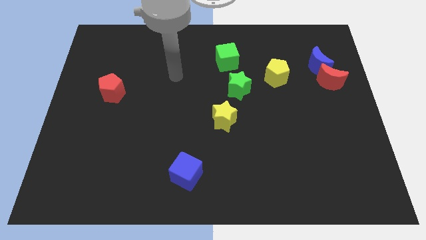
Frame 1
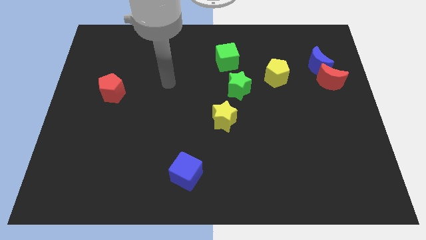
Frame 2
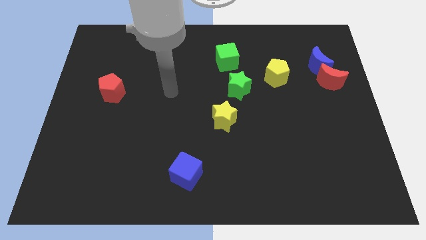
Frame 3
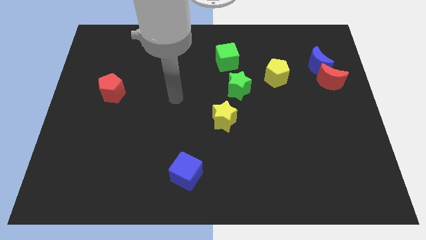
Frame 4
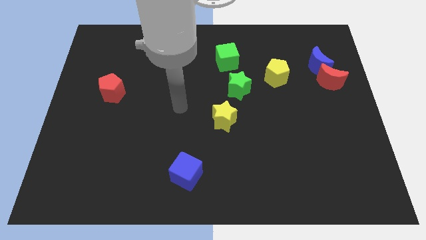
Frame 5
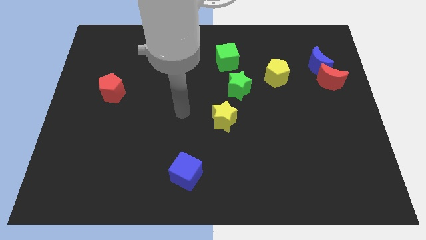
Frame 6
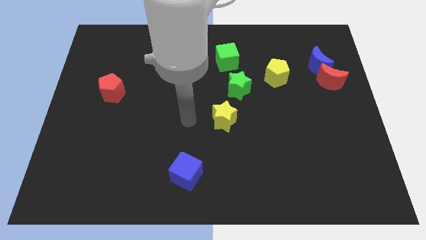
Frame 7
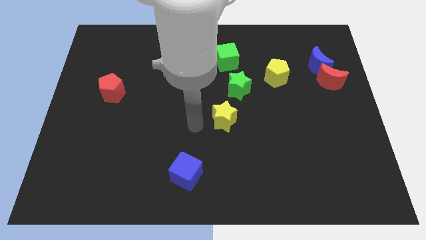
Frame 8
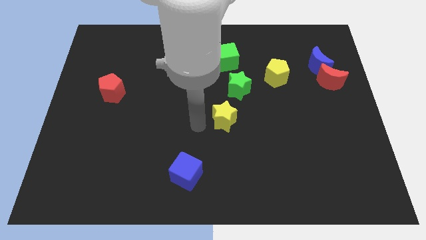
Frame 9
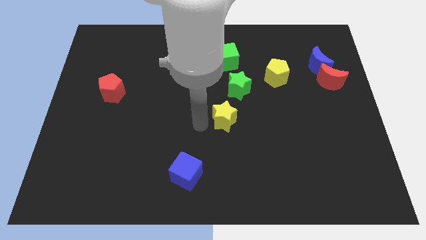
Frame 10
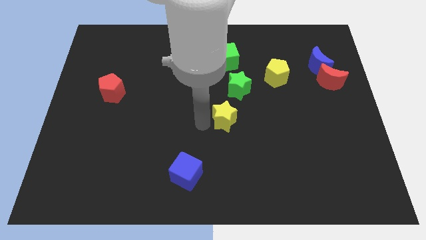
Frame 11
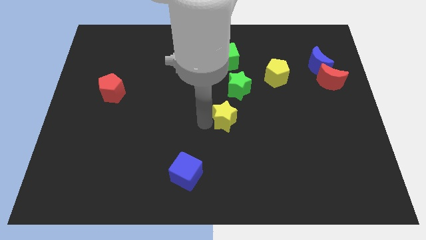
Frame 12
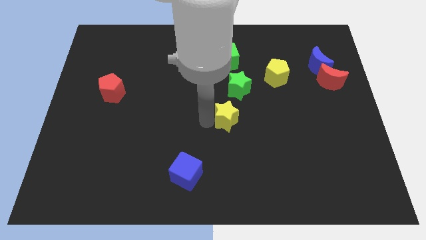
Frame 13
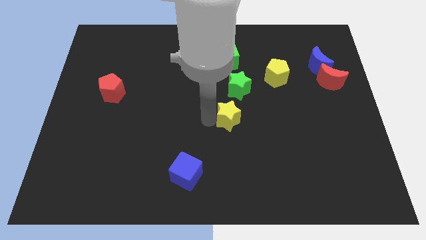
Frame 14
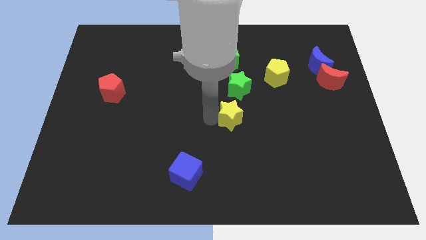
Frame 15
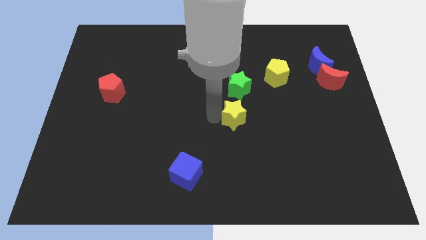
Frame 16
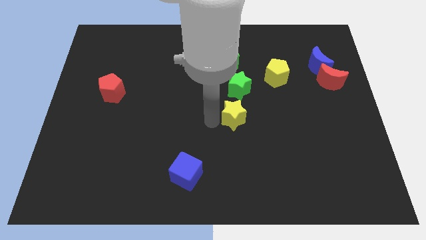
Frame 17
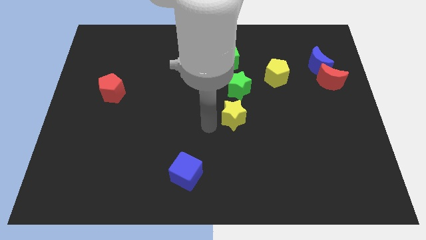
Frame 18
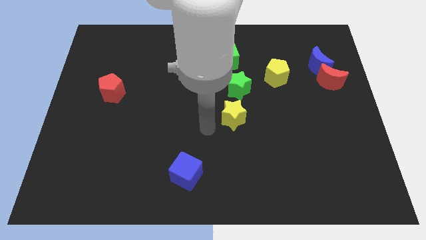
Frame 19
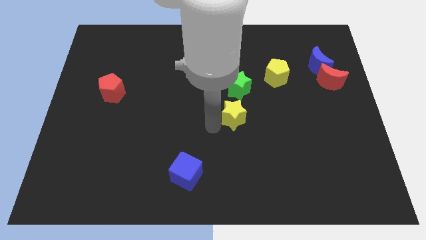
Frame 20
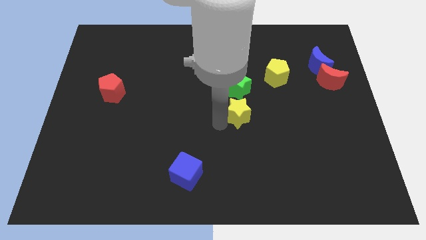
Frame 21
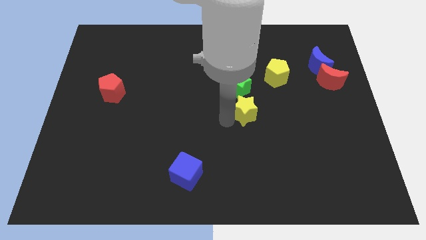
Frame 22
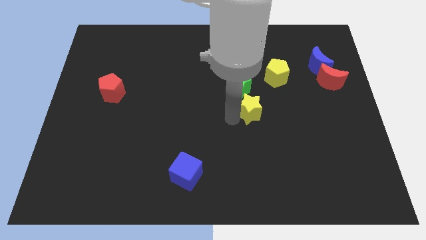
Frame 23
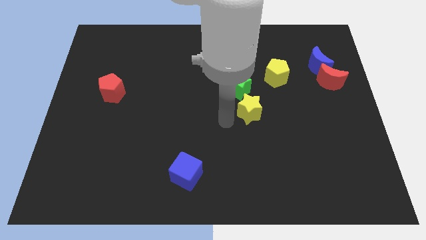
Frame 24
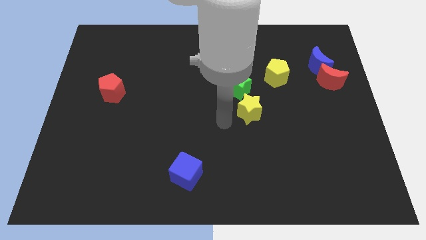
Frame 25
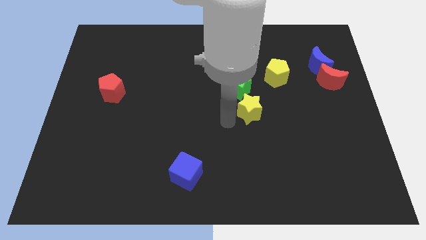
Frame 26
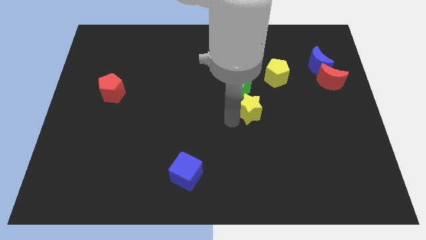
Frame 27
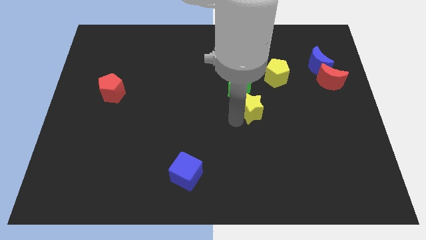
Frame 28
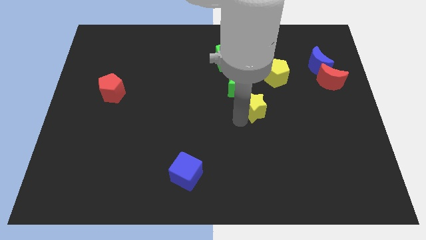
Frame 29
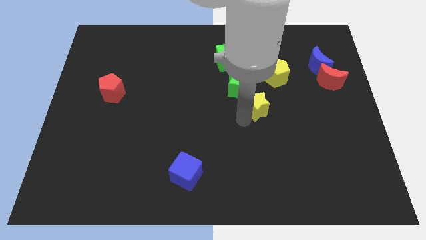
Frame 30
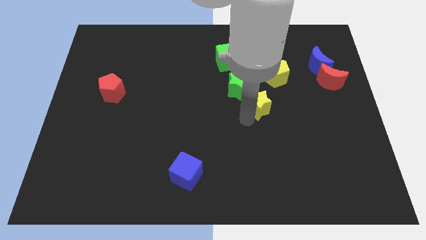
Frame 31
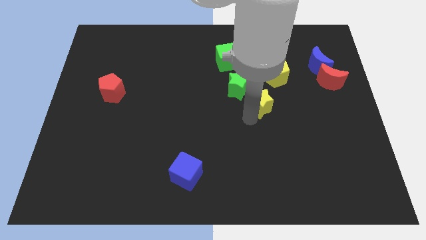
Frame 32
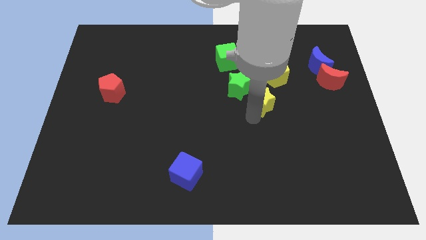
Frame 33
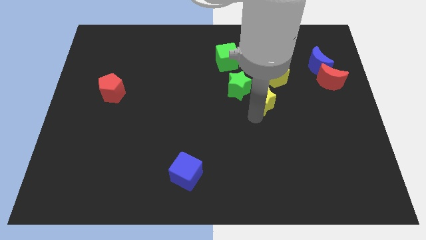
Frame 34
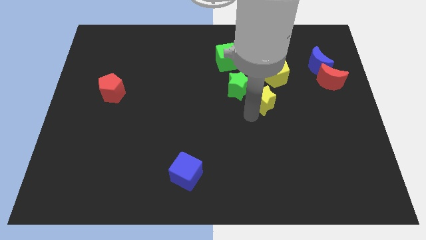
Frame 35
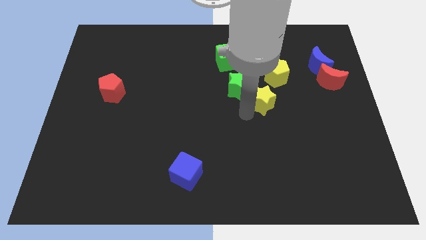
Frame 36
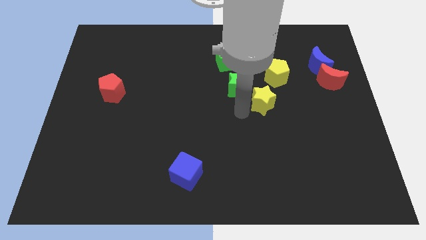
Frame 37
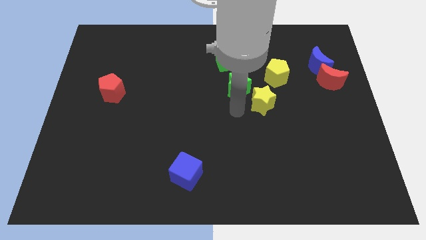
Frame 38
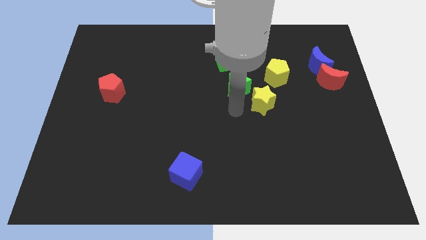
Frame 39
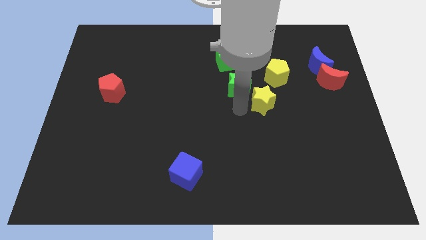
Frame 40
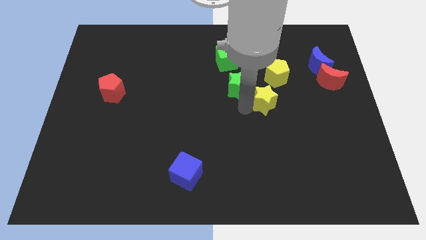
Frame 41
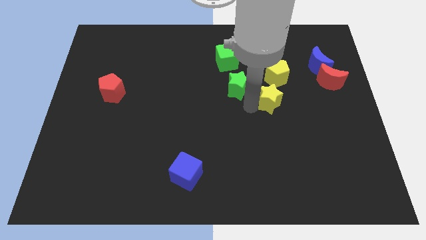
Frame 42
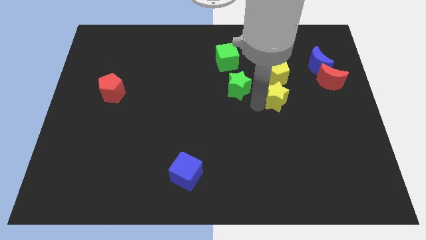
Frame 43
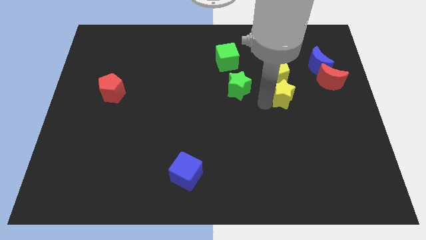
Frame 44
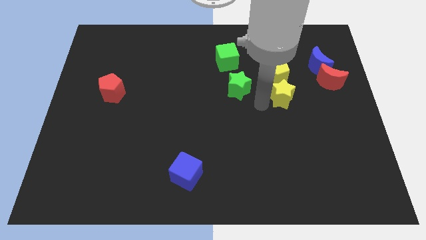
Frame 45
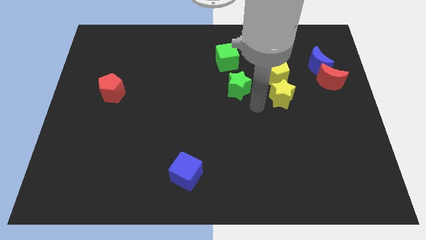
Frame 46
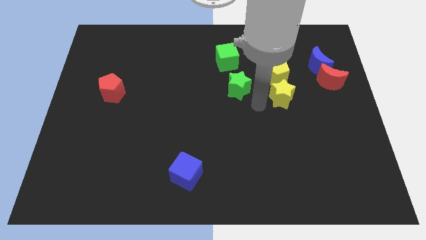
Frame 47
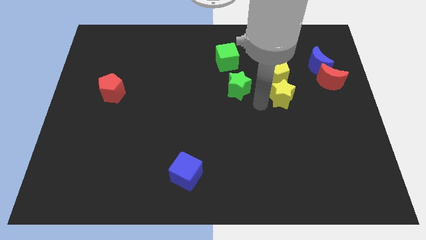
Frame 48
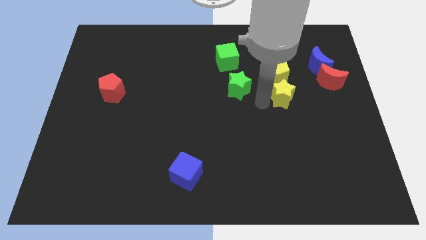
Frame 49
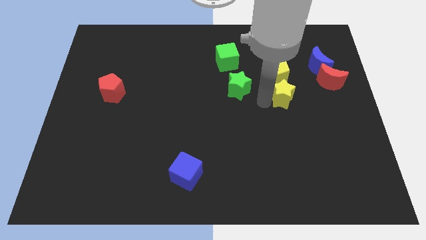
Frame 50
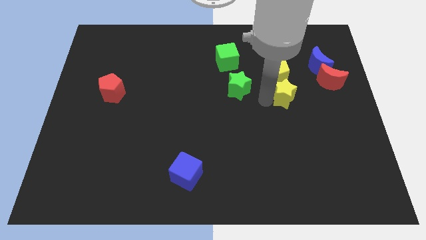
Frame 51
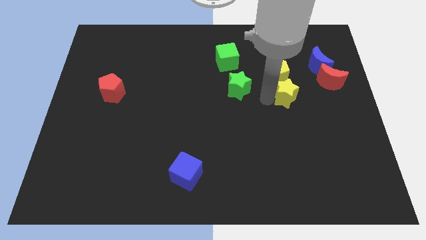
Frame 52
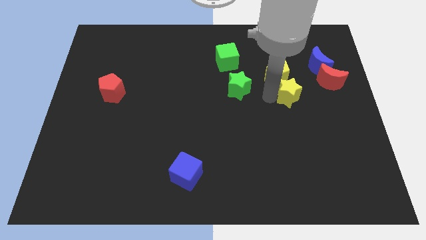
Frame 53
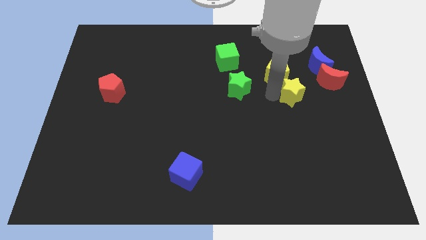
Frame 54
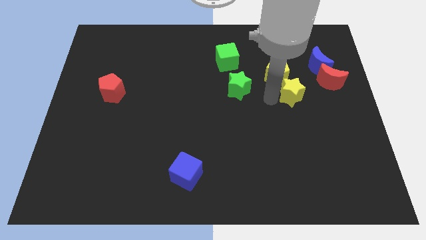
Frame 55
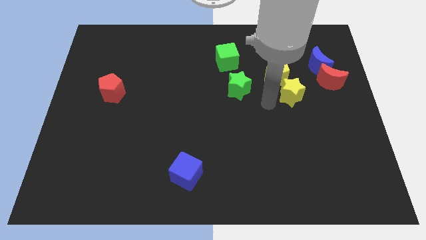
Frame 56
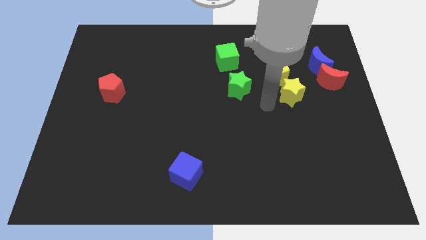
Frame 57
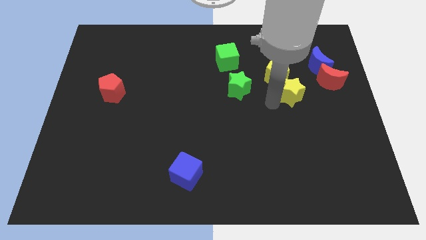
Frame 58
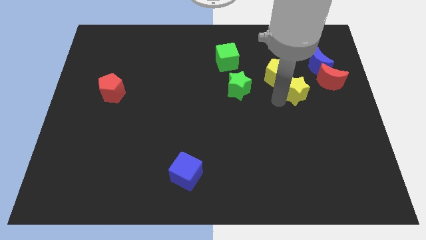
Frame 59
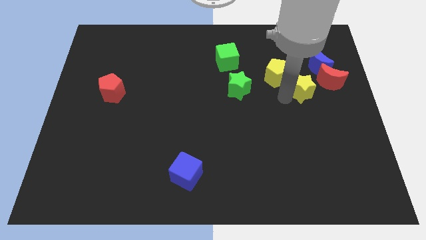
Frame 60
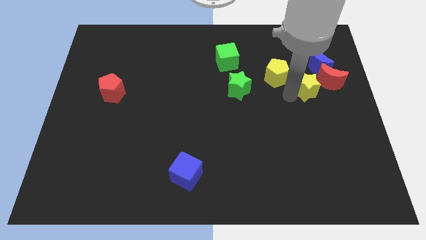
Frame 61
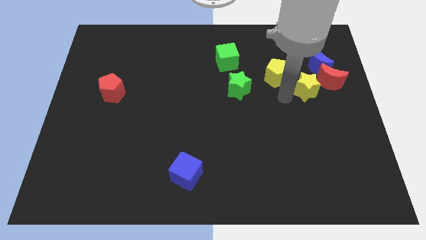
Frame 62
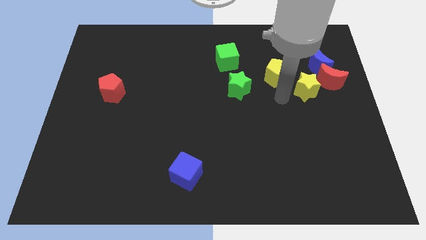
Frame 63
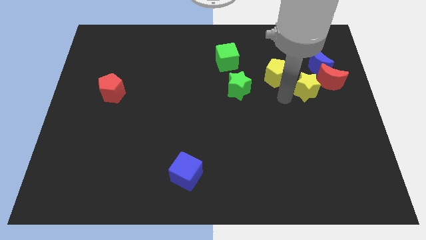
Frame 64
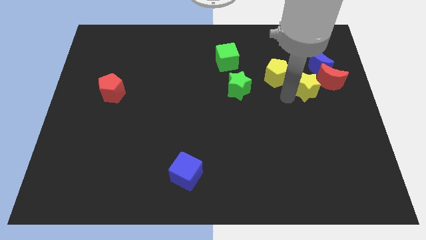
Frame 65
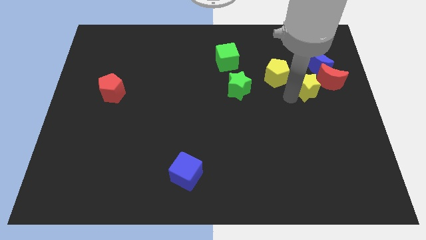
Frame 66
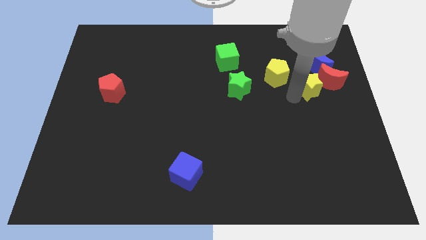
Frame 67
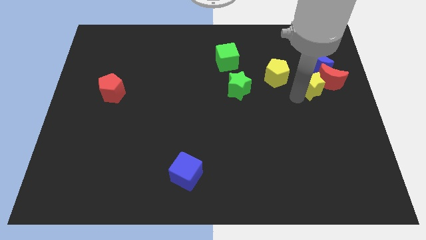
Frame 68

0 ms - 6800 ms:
slide the yellow star to the red moon

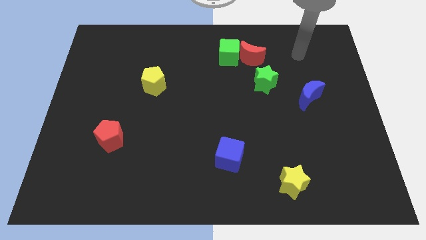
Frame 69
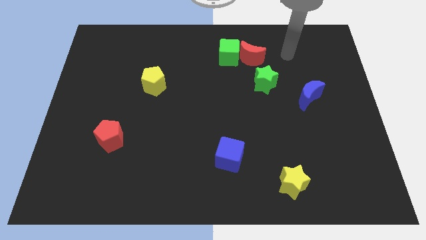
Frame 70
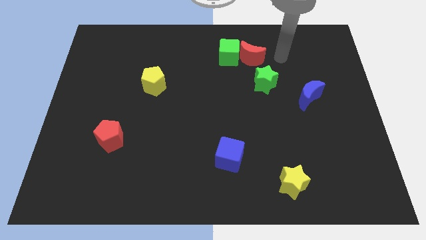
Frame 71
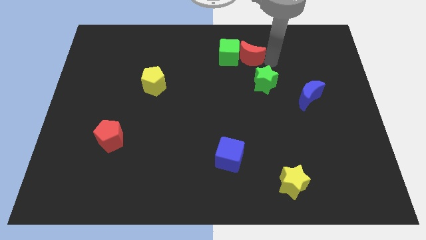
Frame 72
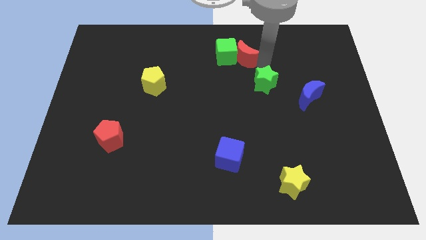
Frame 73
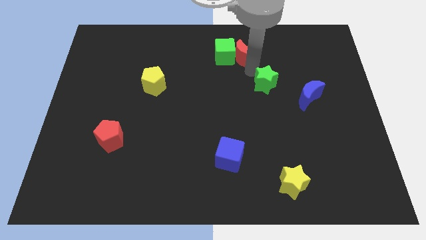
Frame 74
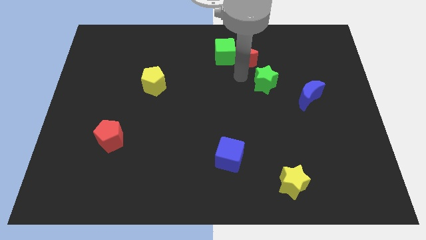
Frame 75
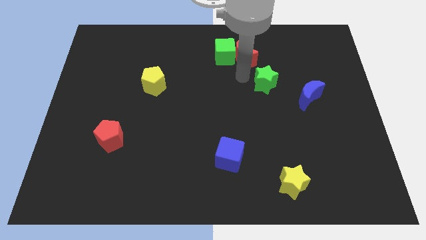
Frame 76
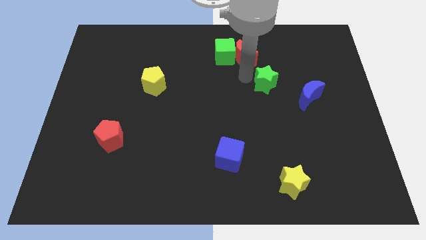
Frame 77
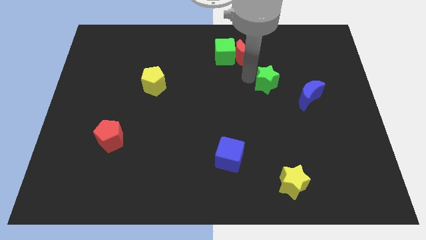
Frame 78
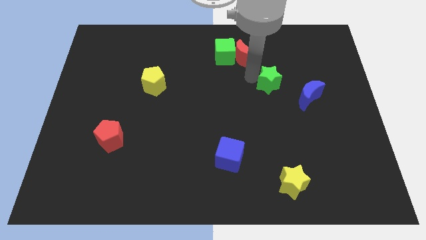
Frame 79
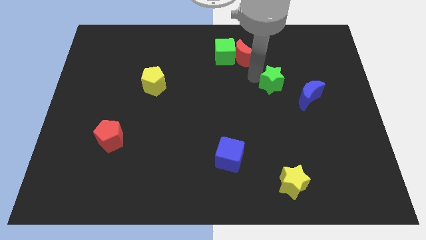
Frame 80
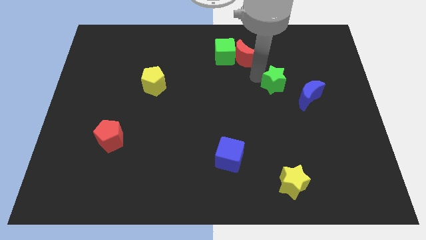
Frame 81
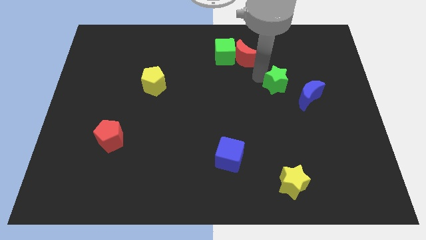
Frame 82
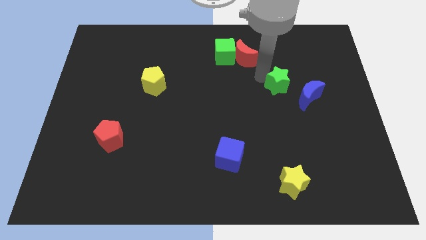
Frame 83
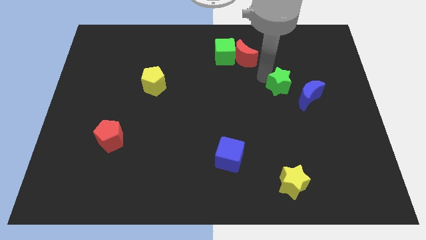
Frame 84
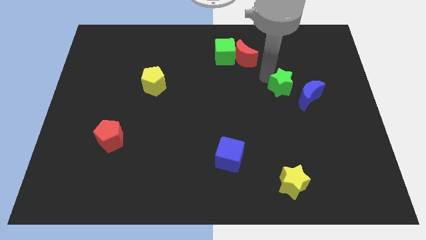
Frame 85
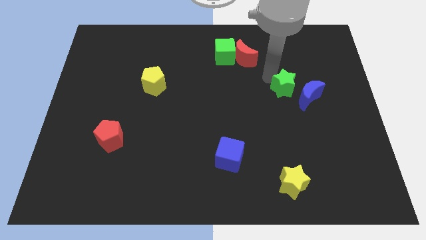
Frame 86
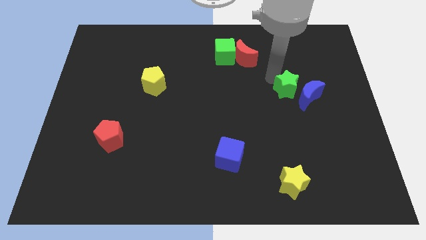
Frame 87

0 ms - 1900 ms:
move the green star close to the blue moon
